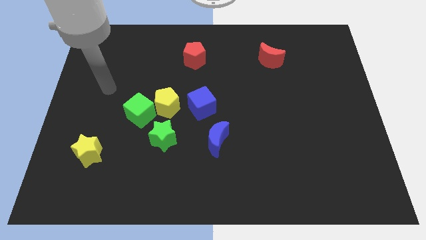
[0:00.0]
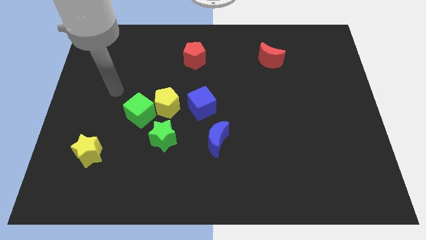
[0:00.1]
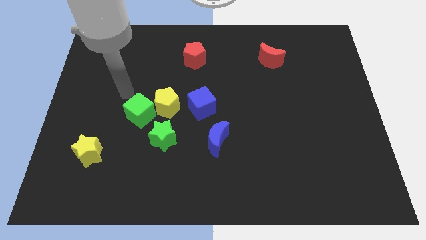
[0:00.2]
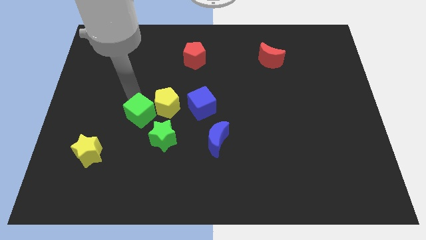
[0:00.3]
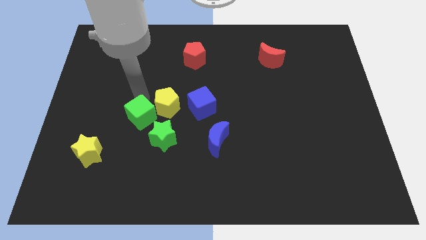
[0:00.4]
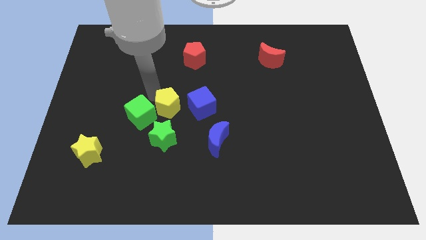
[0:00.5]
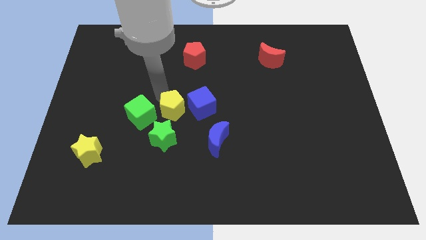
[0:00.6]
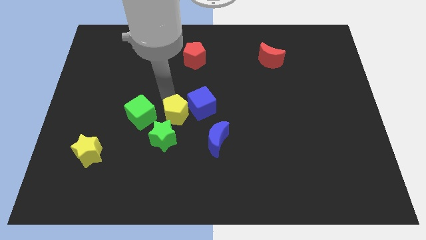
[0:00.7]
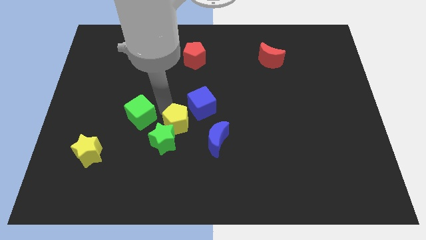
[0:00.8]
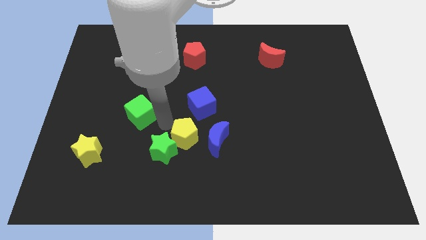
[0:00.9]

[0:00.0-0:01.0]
move the green cube away from the yellow pentagon and green star

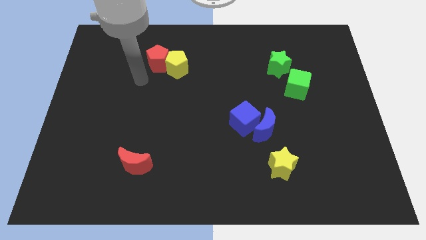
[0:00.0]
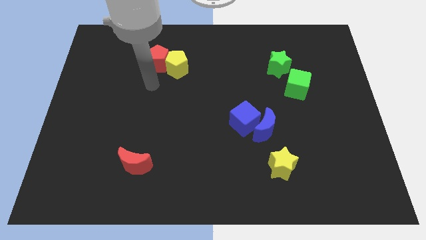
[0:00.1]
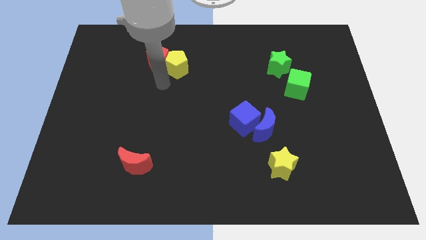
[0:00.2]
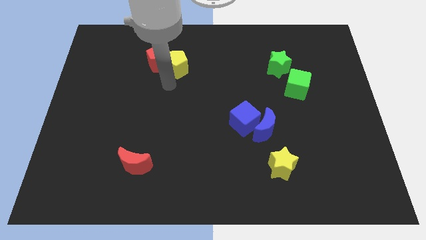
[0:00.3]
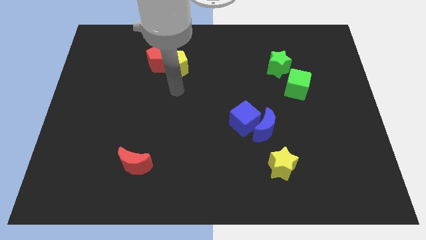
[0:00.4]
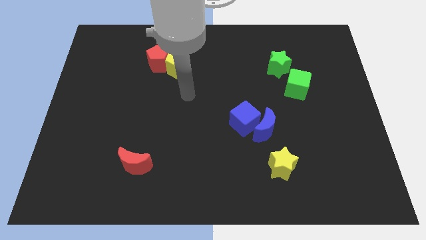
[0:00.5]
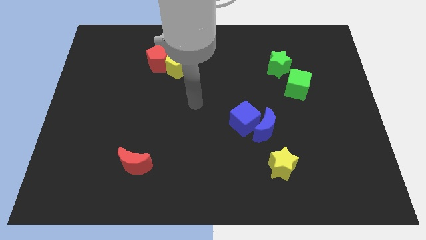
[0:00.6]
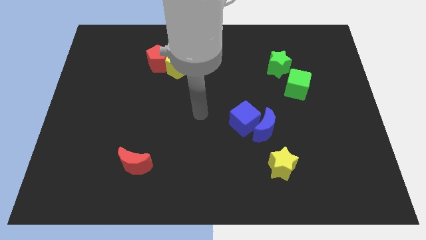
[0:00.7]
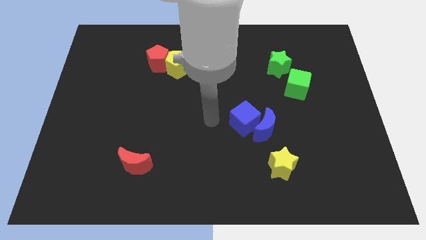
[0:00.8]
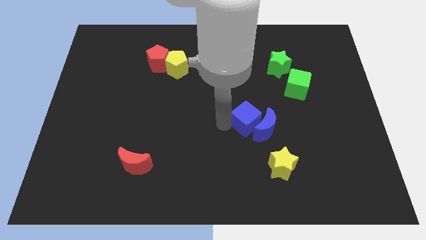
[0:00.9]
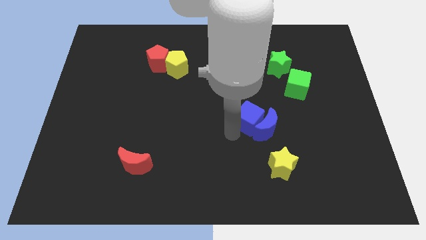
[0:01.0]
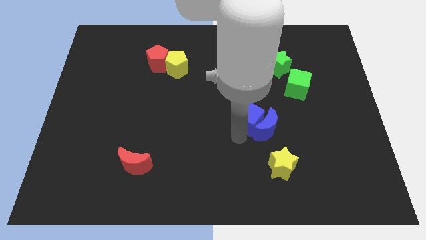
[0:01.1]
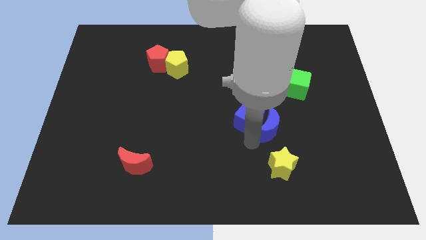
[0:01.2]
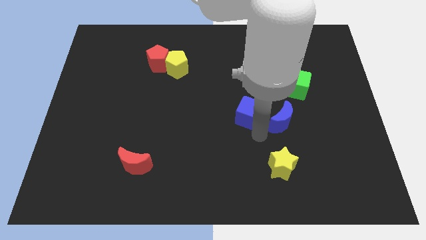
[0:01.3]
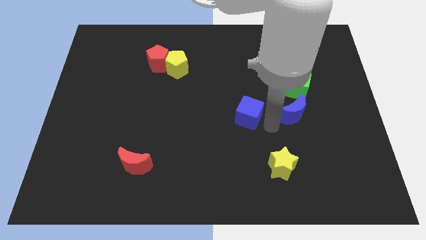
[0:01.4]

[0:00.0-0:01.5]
separate the blue cube from the blue moon

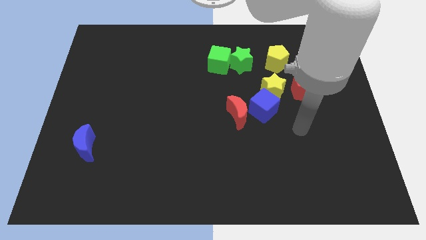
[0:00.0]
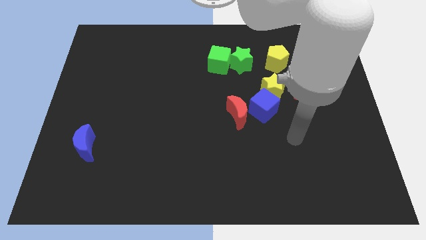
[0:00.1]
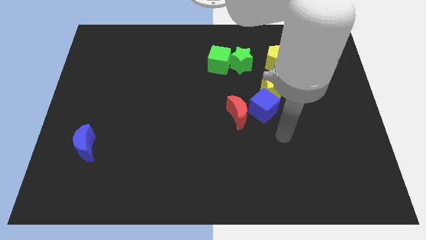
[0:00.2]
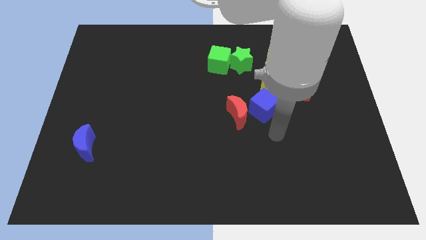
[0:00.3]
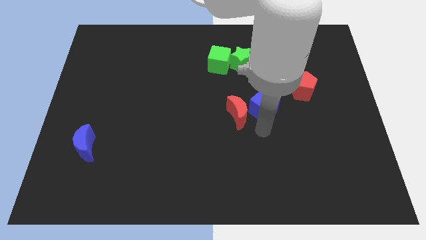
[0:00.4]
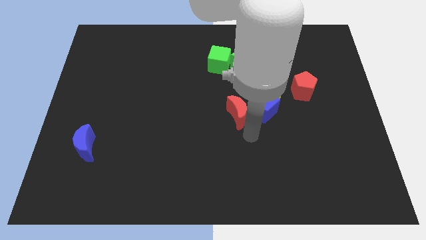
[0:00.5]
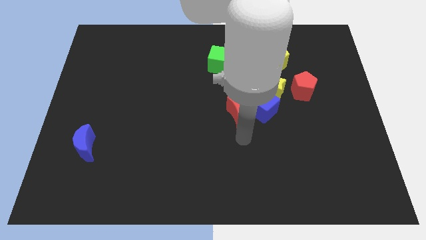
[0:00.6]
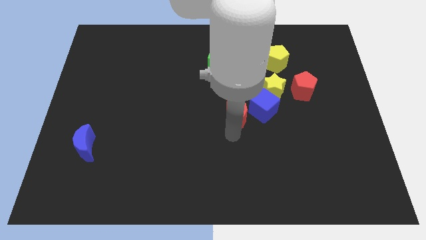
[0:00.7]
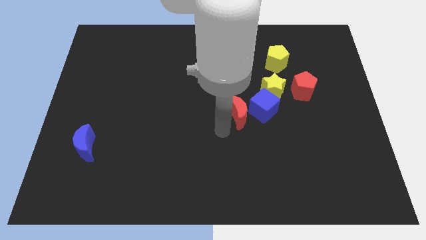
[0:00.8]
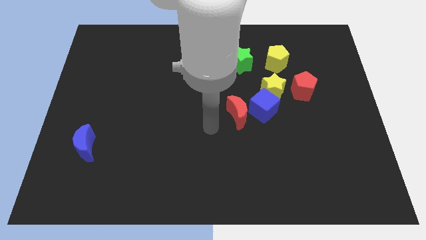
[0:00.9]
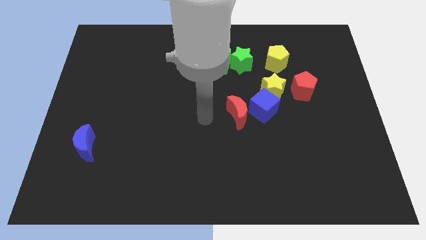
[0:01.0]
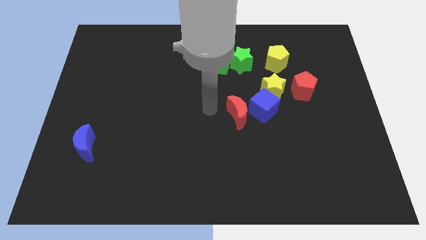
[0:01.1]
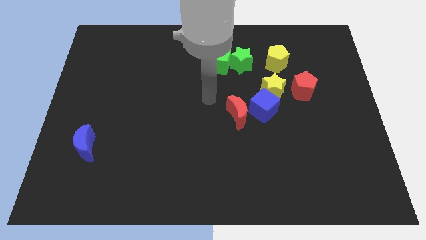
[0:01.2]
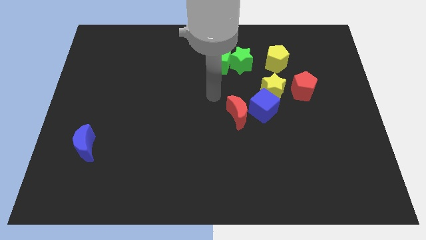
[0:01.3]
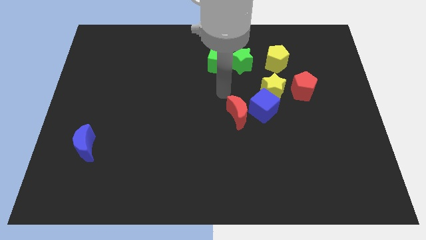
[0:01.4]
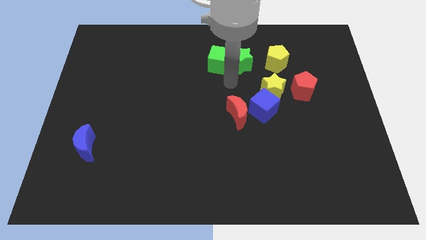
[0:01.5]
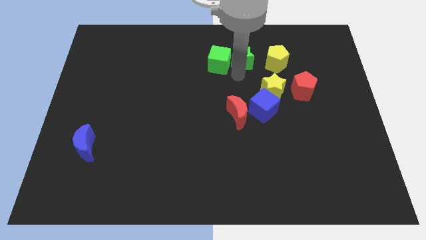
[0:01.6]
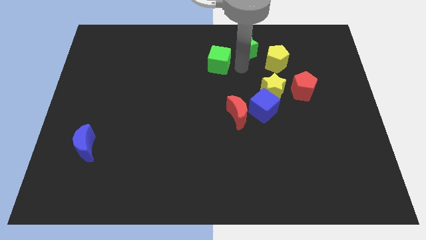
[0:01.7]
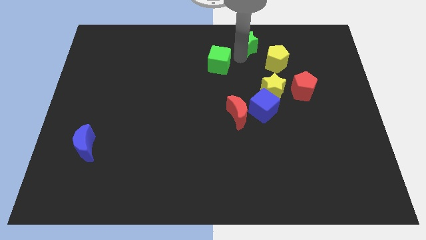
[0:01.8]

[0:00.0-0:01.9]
pull the green cube apart from the green star

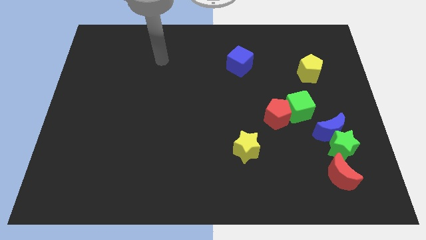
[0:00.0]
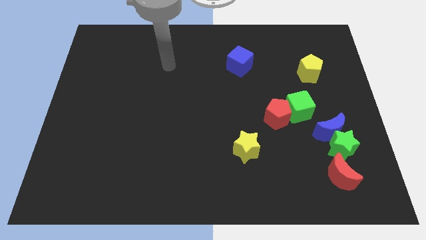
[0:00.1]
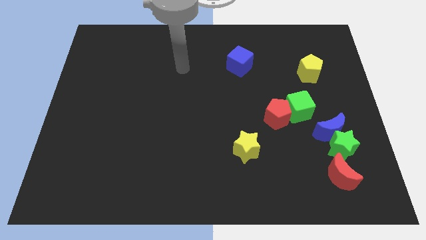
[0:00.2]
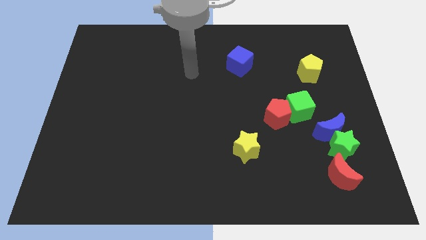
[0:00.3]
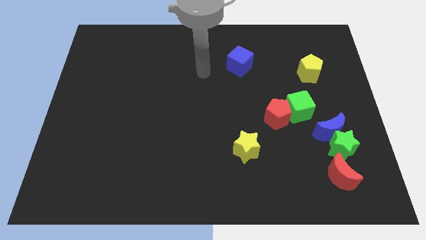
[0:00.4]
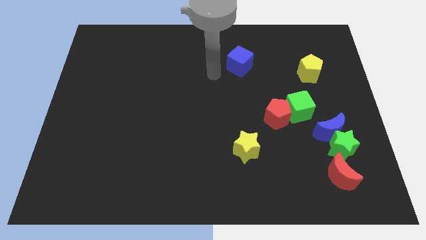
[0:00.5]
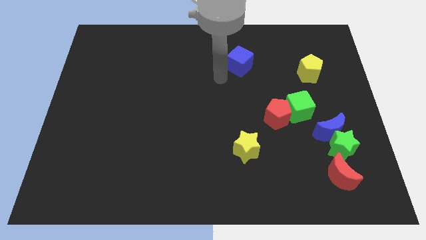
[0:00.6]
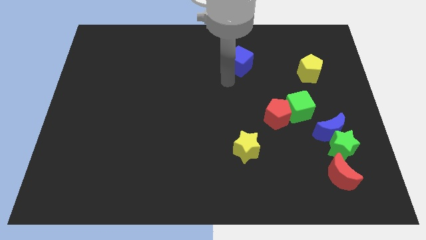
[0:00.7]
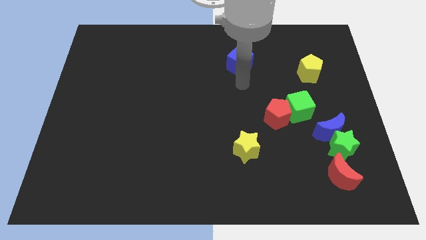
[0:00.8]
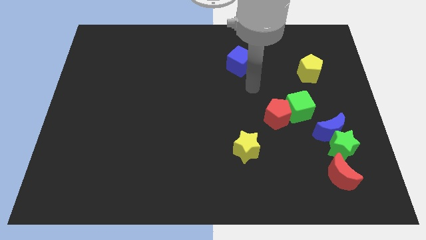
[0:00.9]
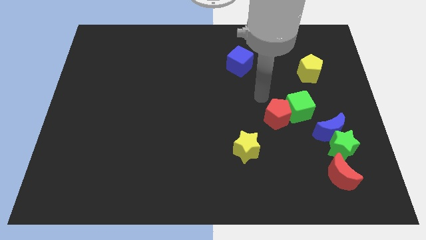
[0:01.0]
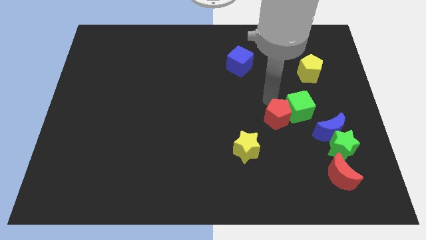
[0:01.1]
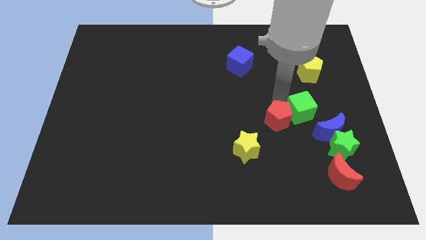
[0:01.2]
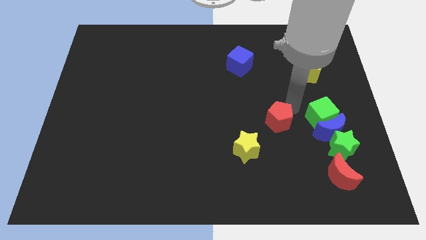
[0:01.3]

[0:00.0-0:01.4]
move the red pentagon away from the green cube

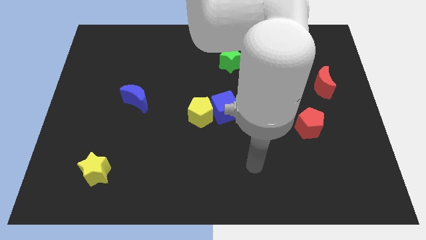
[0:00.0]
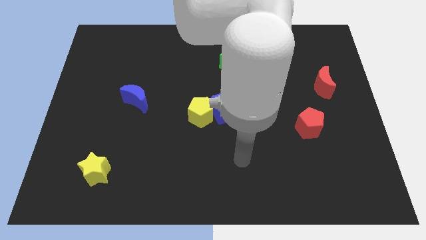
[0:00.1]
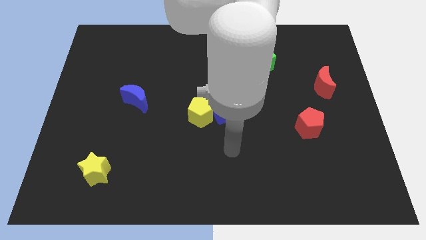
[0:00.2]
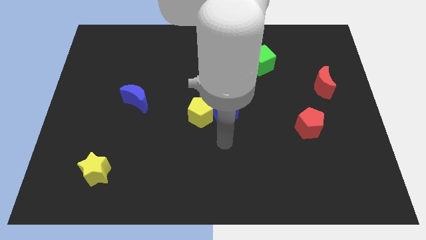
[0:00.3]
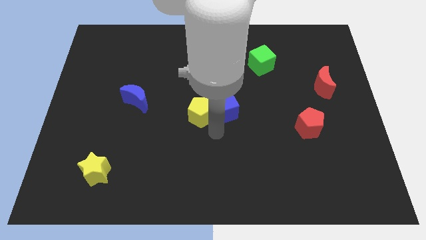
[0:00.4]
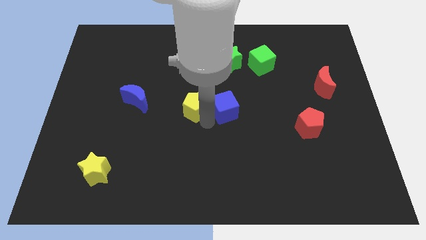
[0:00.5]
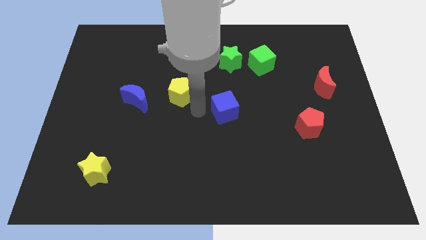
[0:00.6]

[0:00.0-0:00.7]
move the blue cube away from the yellow pentagon

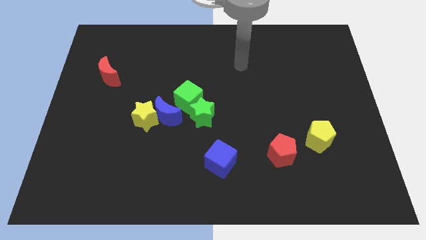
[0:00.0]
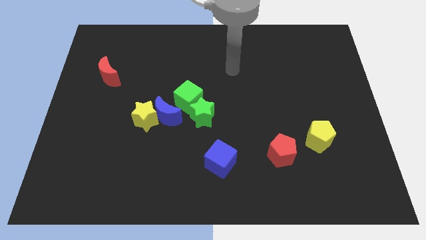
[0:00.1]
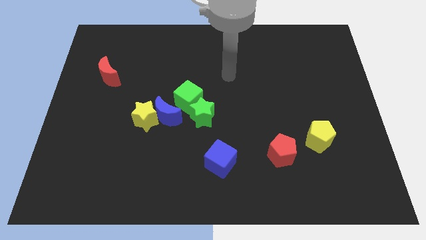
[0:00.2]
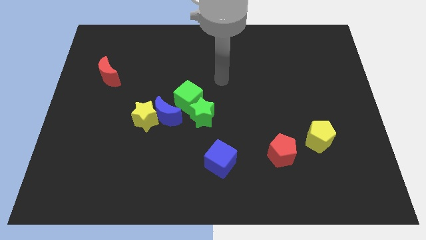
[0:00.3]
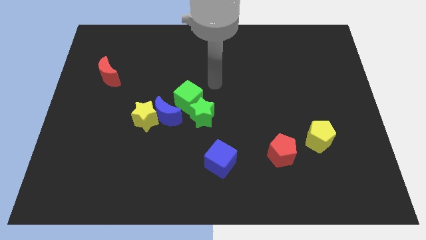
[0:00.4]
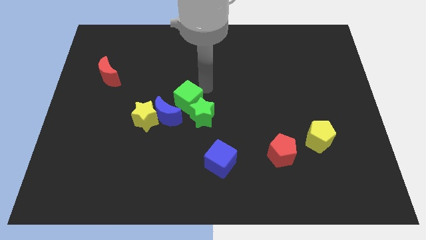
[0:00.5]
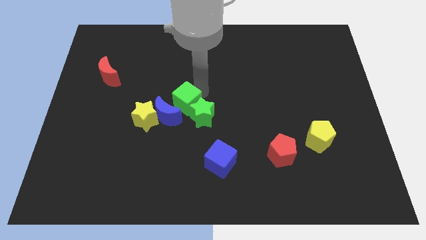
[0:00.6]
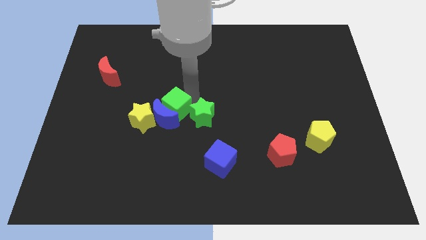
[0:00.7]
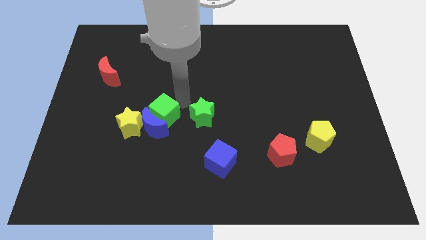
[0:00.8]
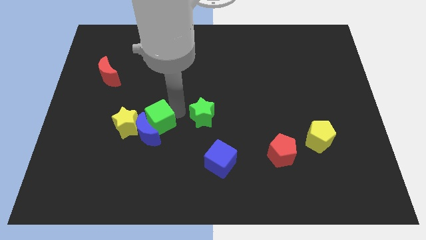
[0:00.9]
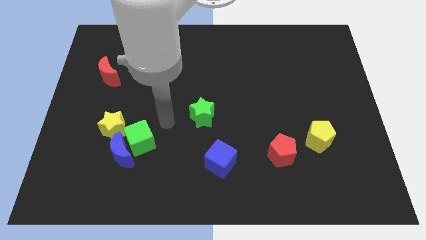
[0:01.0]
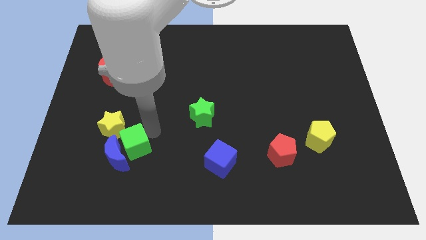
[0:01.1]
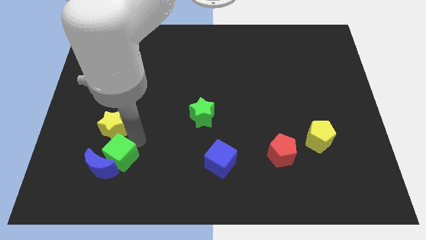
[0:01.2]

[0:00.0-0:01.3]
pull the yellow star apart from the blue moon

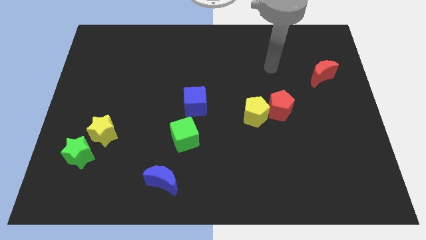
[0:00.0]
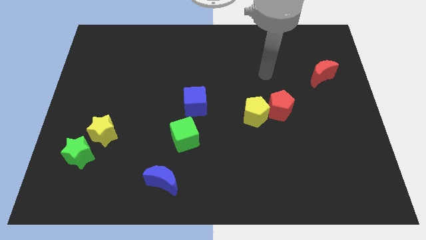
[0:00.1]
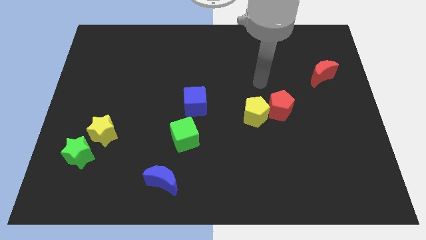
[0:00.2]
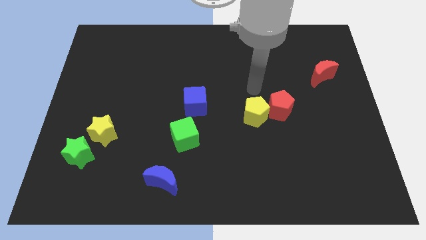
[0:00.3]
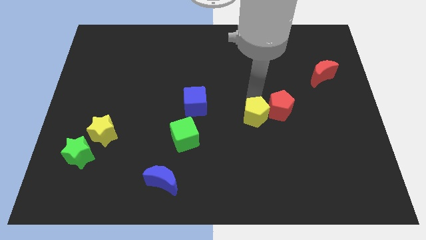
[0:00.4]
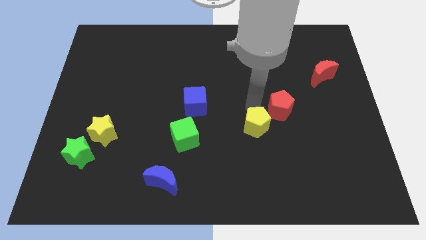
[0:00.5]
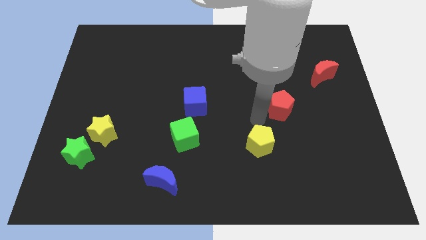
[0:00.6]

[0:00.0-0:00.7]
separate the red pentagon from the yellow pentagon

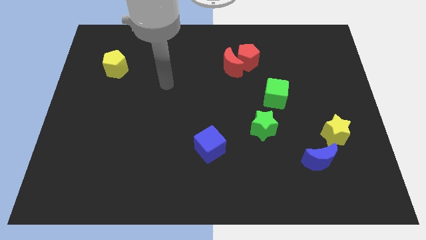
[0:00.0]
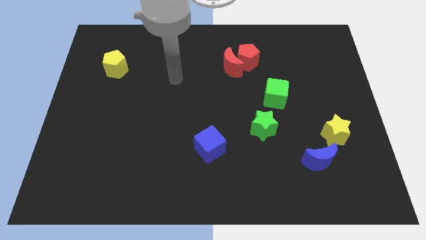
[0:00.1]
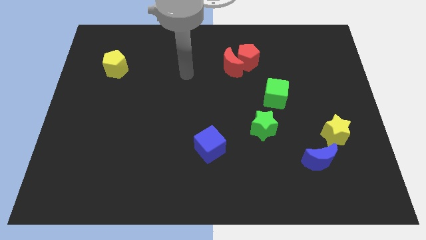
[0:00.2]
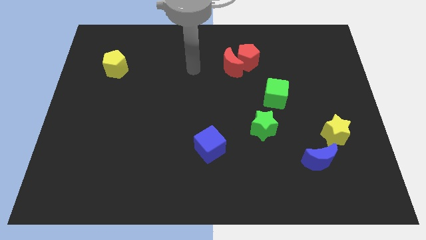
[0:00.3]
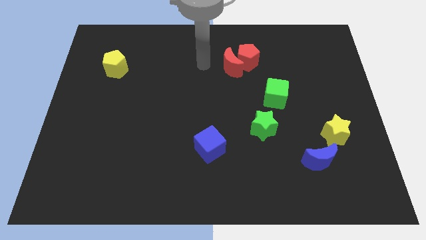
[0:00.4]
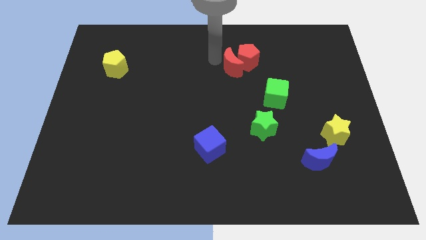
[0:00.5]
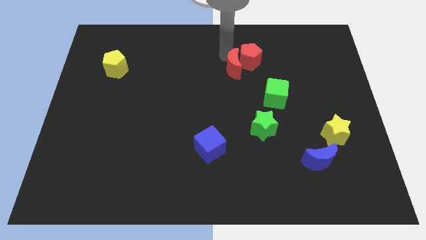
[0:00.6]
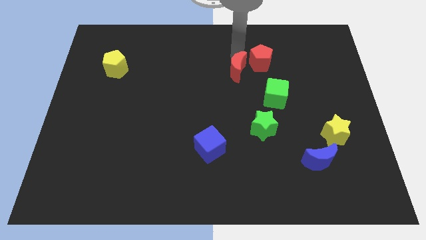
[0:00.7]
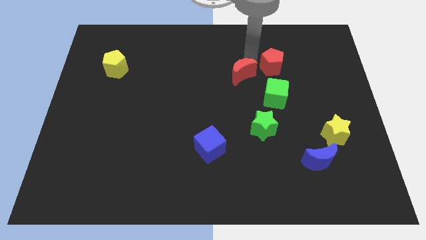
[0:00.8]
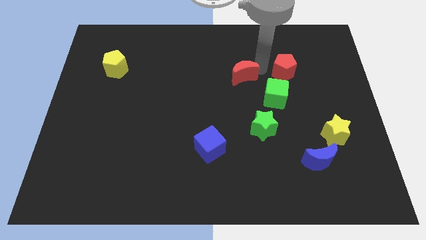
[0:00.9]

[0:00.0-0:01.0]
separate the red moon from the red pentagon

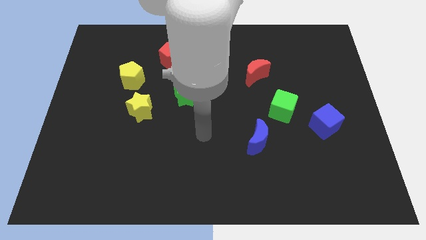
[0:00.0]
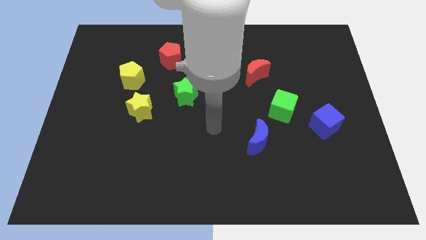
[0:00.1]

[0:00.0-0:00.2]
move the blue cube away from the green cube
